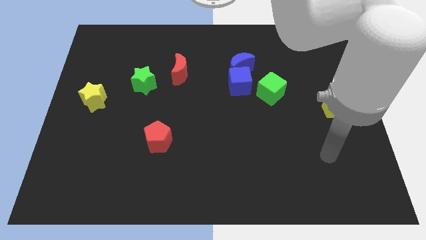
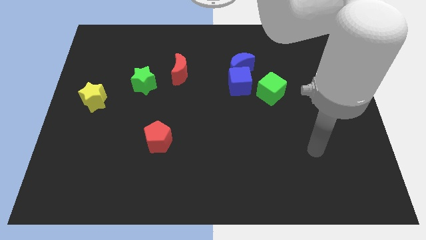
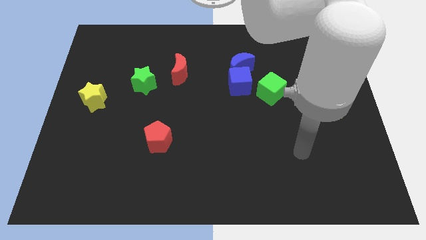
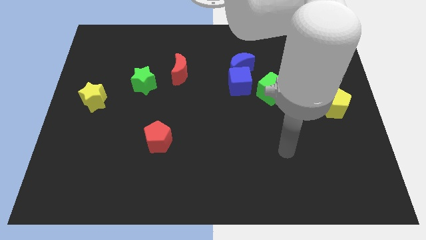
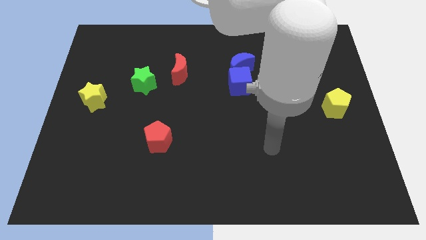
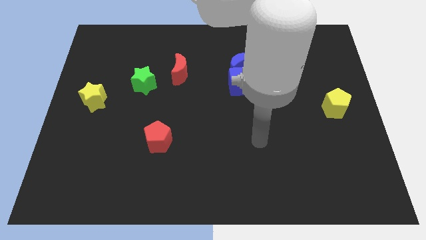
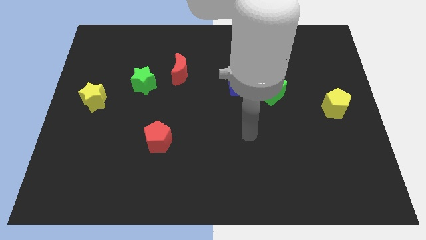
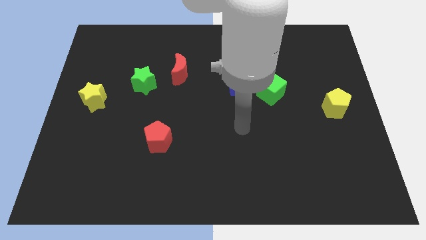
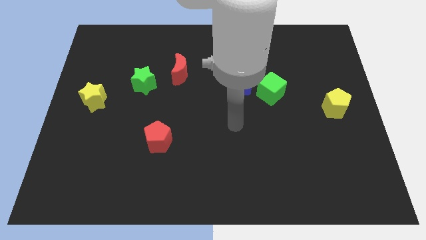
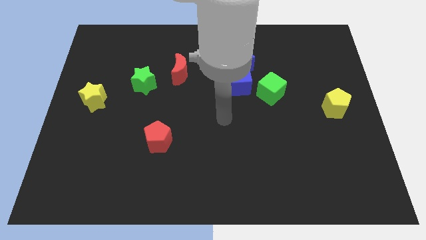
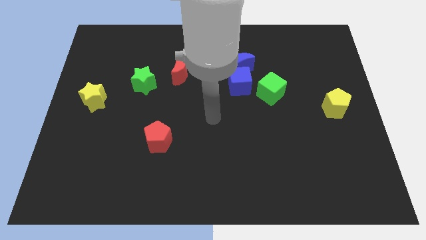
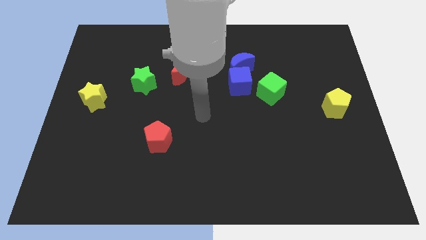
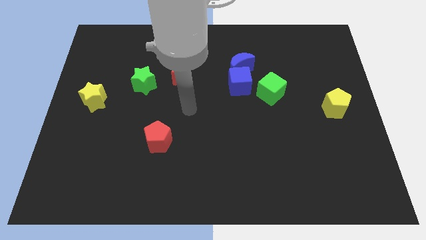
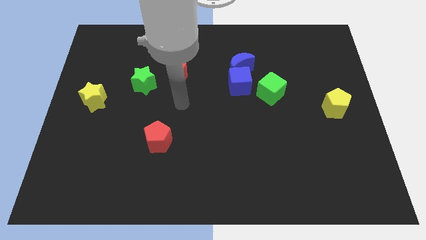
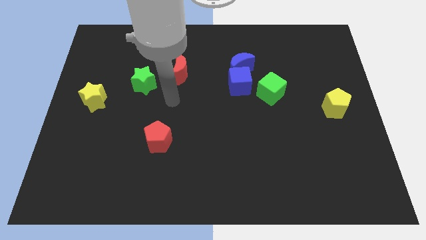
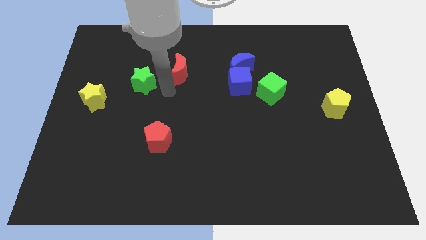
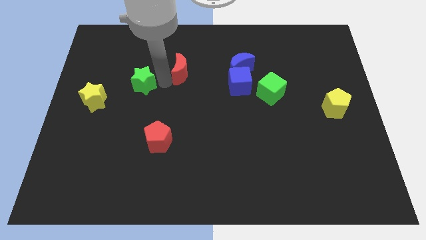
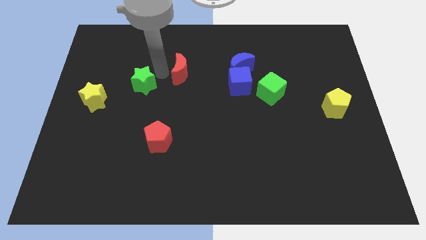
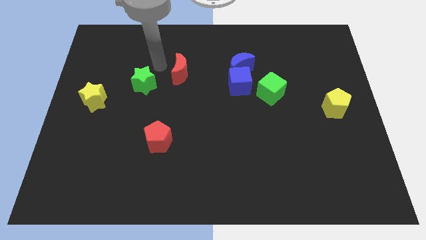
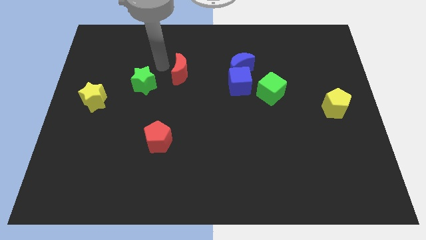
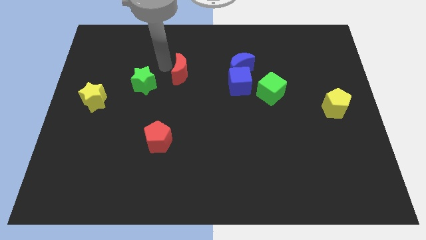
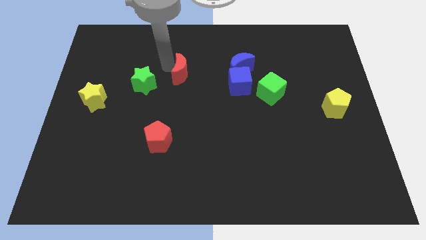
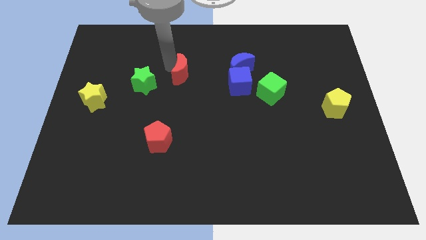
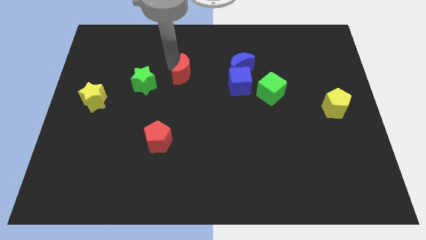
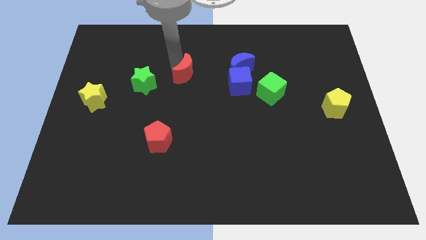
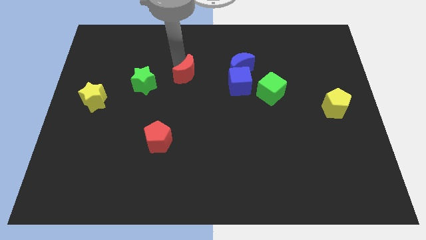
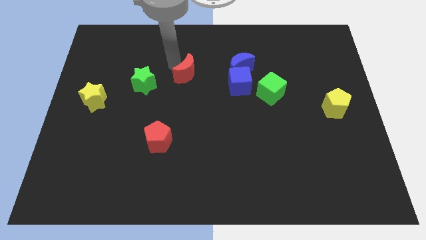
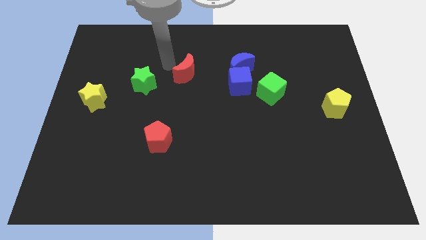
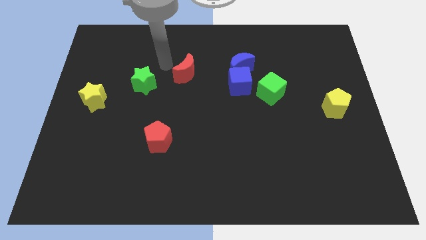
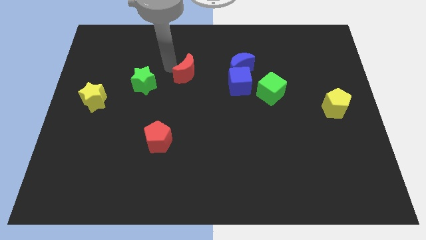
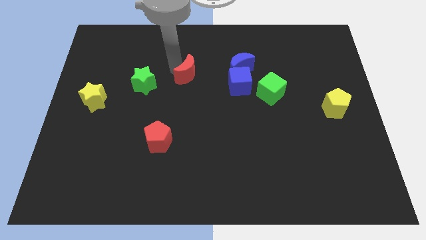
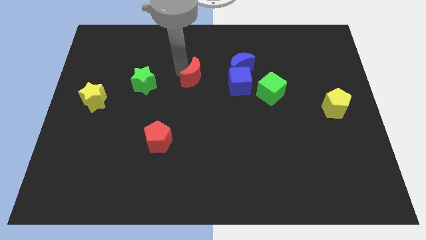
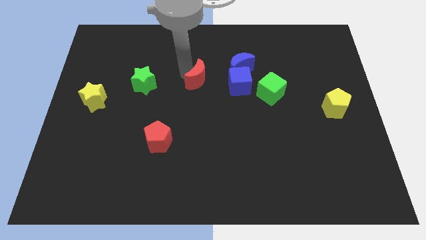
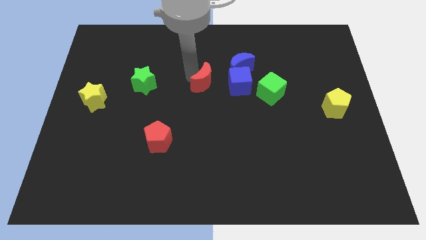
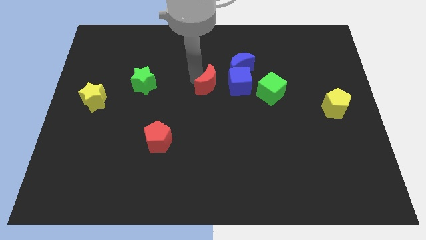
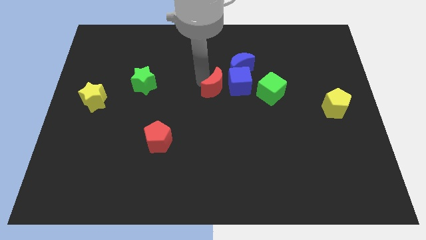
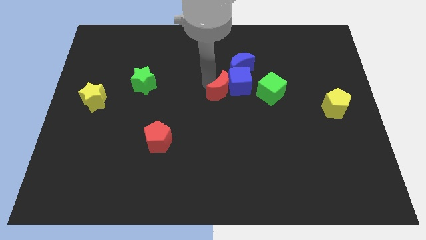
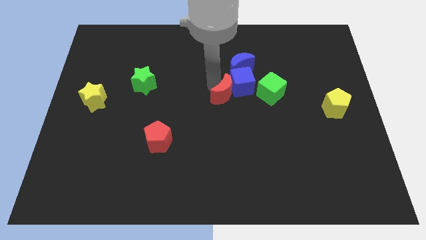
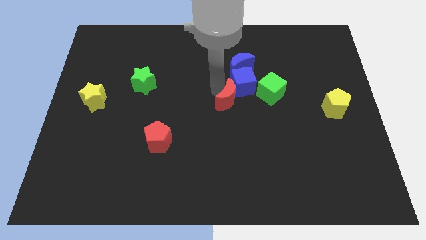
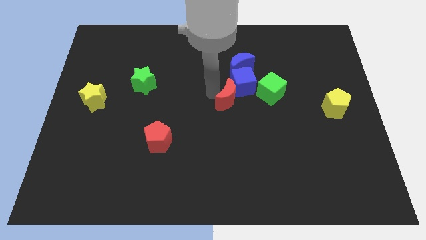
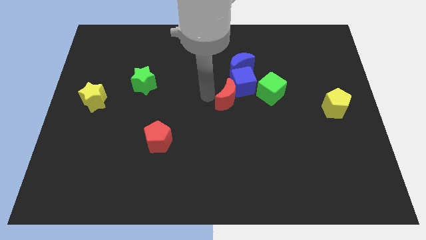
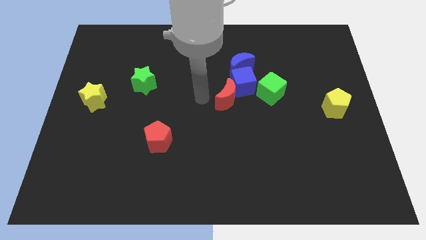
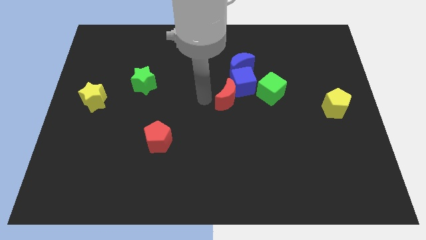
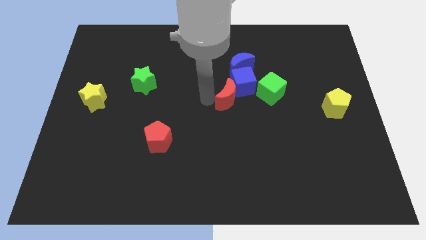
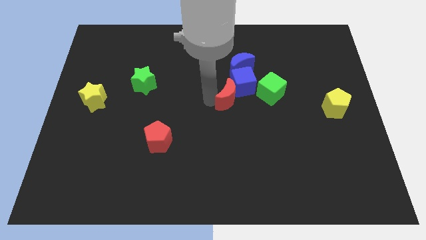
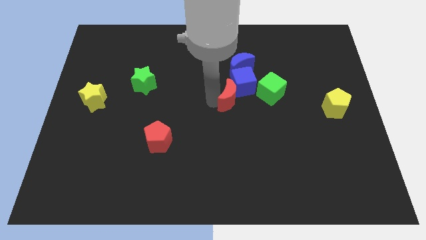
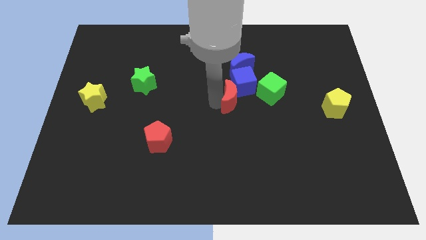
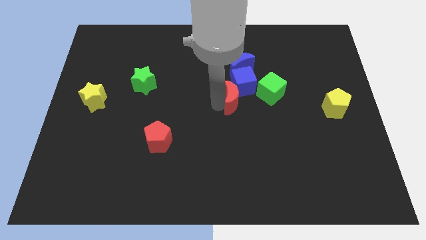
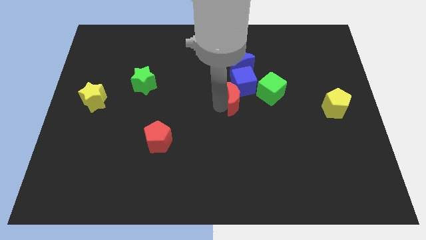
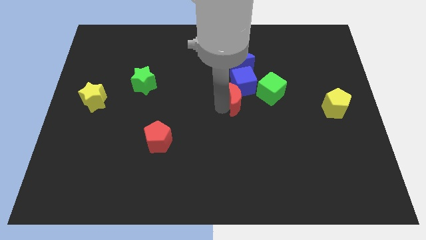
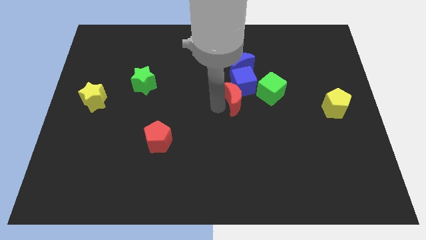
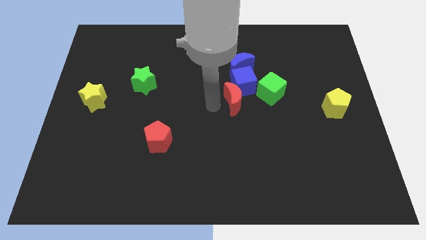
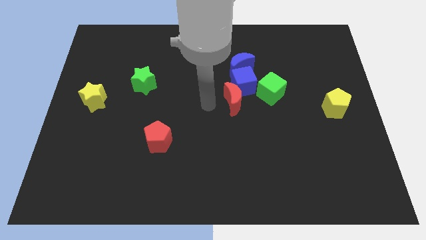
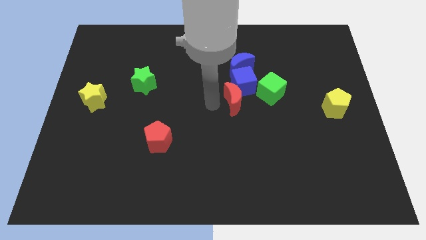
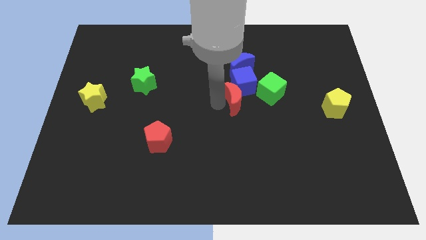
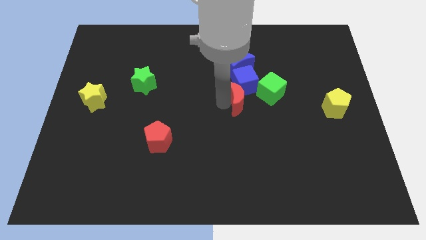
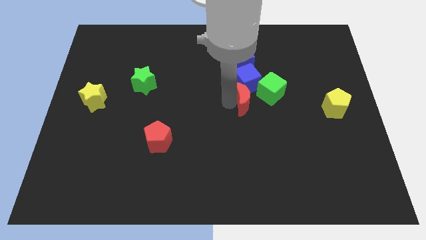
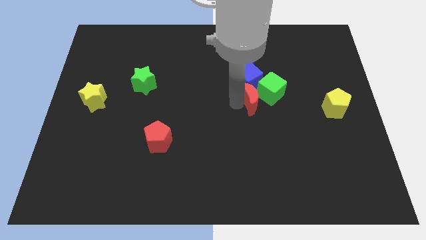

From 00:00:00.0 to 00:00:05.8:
move the red moon towards the green cube
